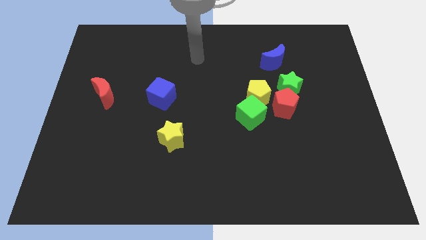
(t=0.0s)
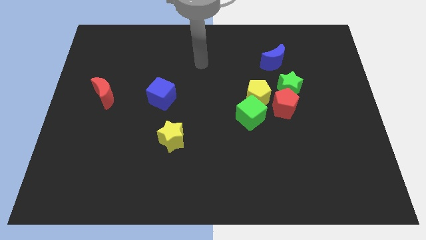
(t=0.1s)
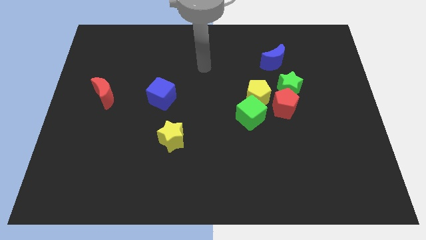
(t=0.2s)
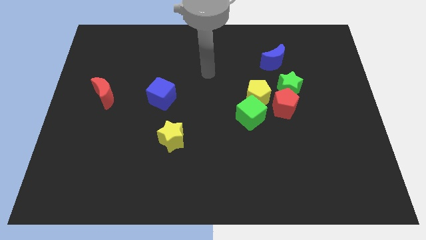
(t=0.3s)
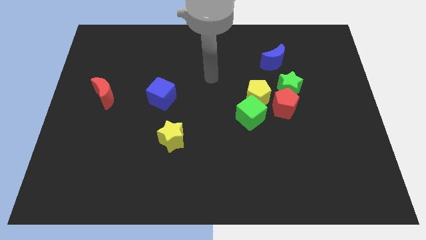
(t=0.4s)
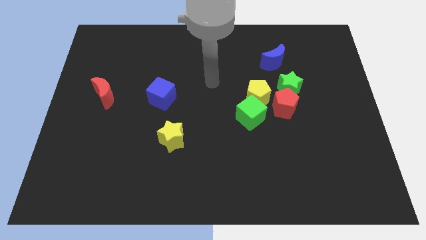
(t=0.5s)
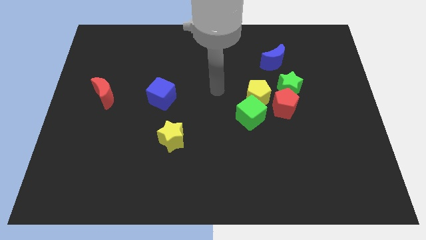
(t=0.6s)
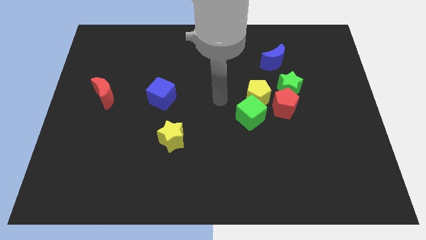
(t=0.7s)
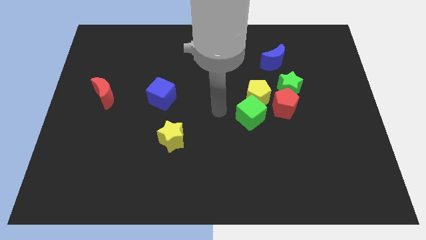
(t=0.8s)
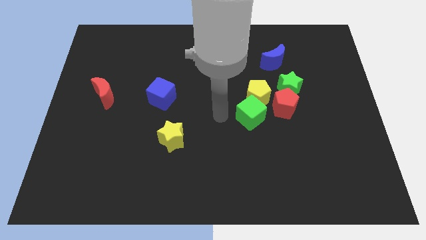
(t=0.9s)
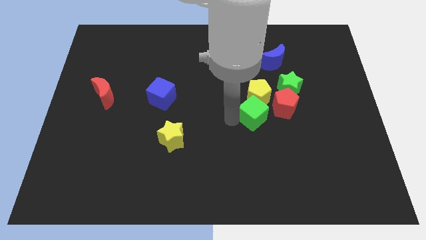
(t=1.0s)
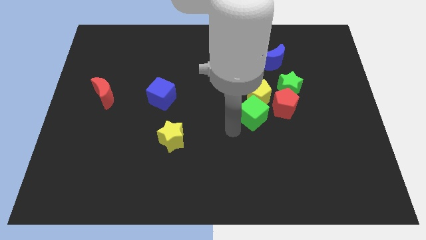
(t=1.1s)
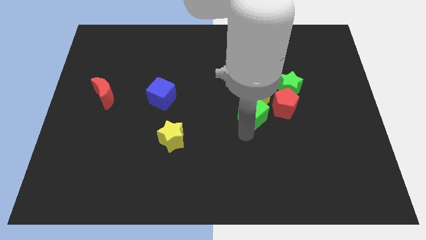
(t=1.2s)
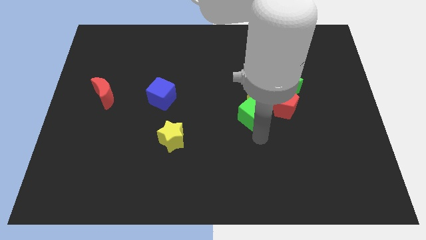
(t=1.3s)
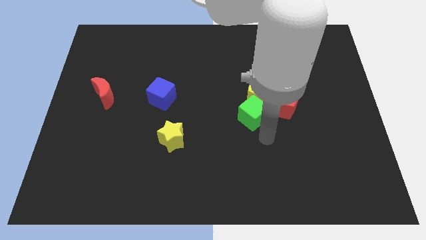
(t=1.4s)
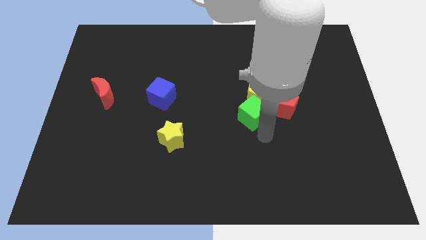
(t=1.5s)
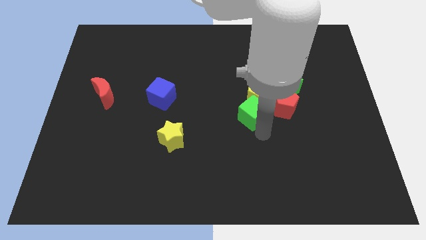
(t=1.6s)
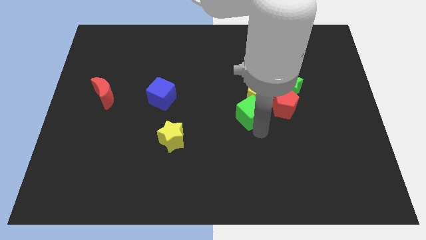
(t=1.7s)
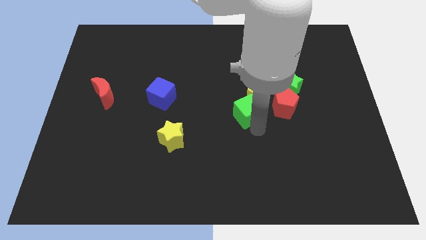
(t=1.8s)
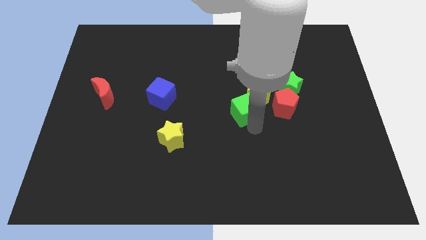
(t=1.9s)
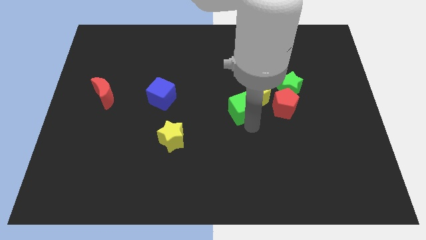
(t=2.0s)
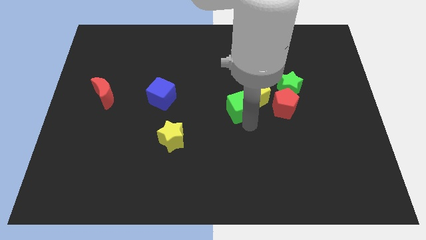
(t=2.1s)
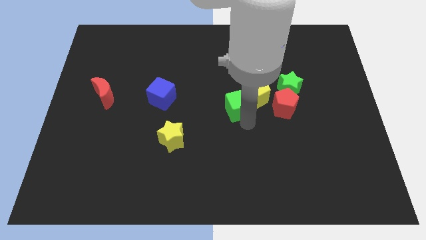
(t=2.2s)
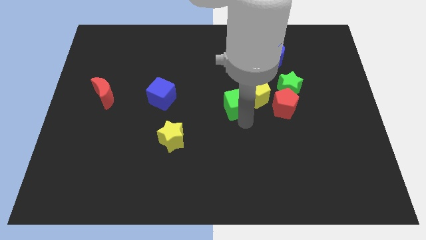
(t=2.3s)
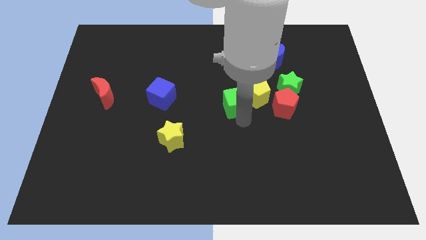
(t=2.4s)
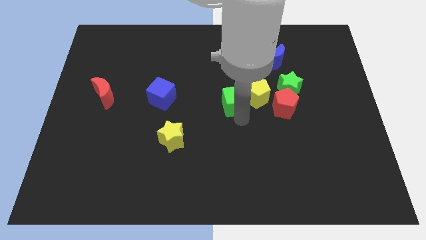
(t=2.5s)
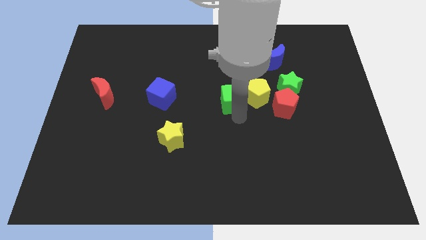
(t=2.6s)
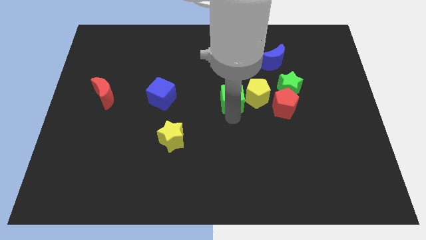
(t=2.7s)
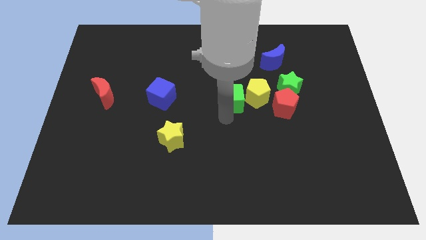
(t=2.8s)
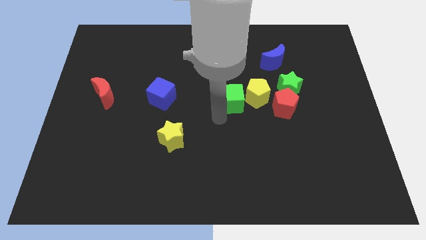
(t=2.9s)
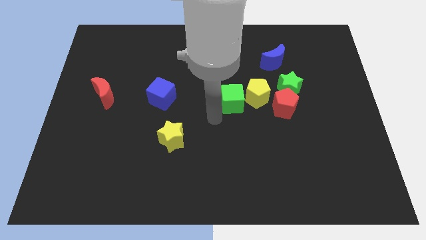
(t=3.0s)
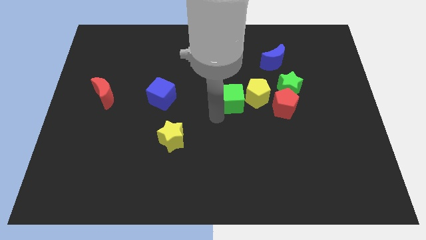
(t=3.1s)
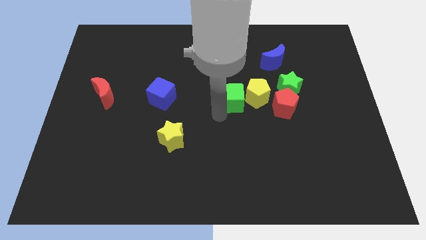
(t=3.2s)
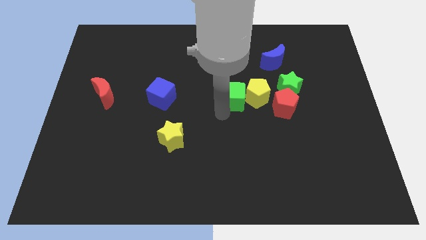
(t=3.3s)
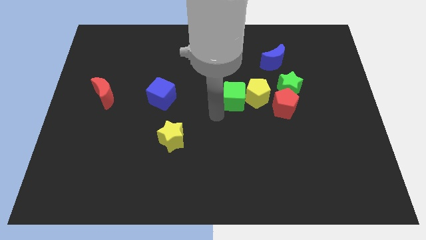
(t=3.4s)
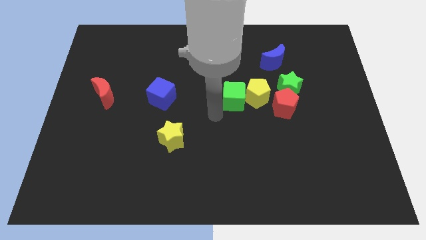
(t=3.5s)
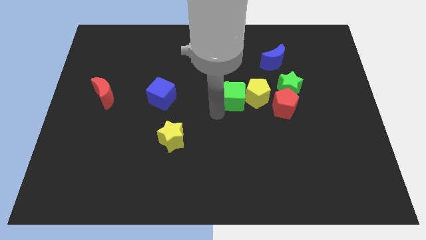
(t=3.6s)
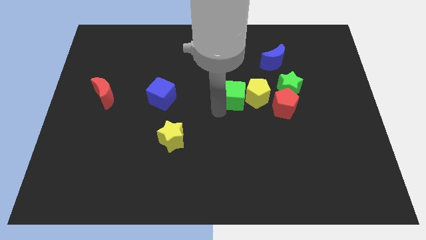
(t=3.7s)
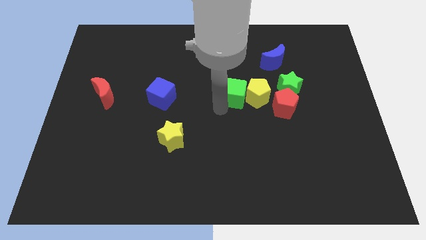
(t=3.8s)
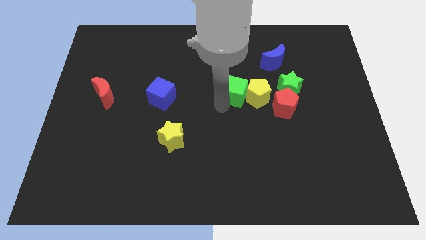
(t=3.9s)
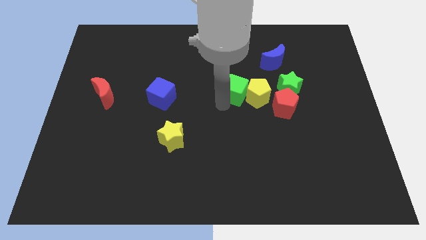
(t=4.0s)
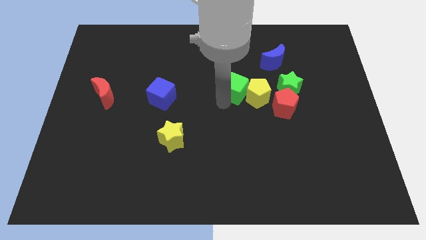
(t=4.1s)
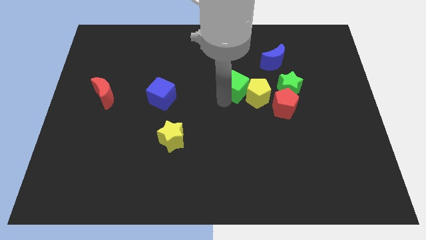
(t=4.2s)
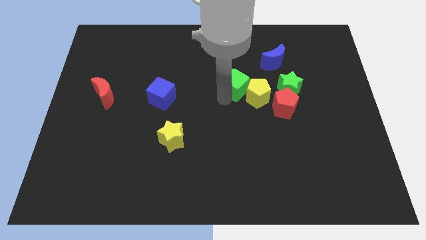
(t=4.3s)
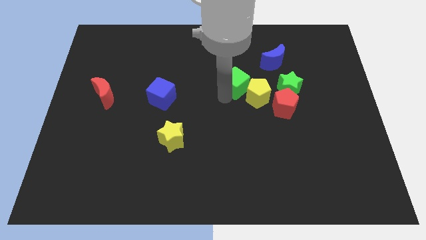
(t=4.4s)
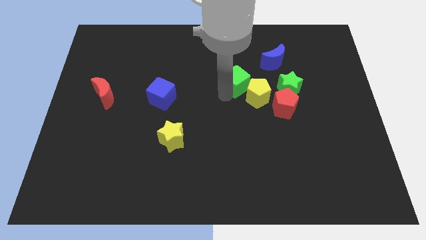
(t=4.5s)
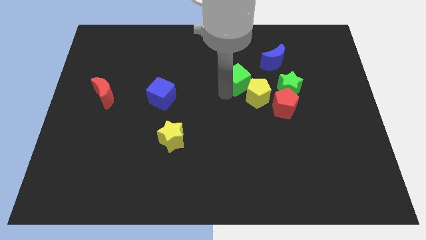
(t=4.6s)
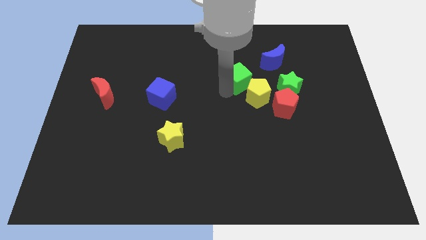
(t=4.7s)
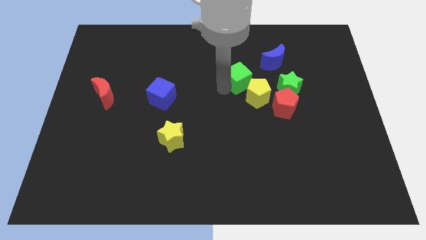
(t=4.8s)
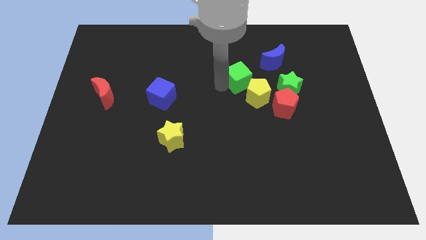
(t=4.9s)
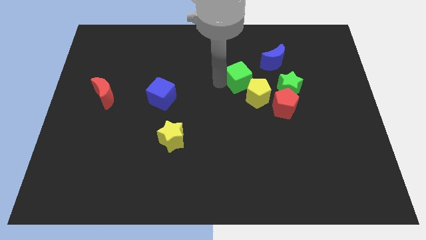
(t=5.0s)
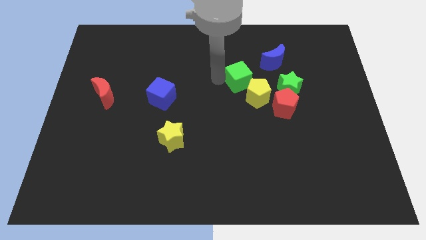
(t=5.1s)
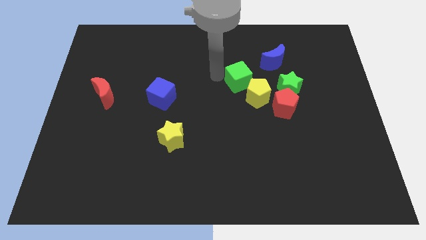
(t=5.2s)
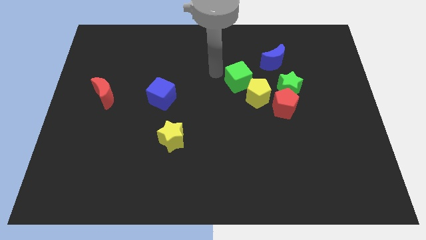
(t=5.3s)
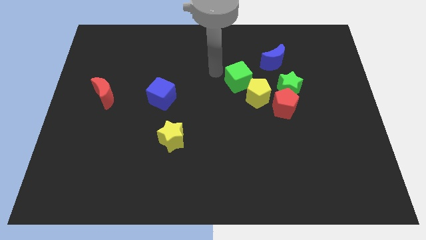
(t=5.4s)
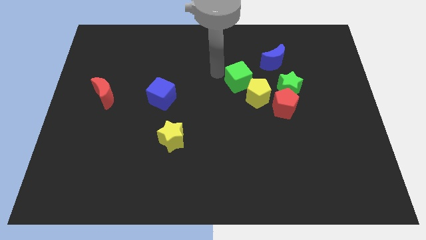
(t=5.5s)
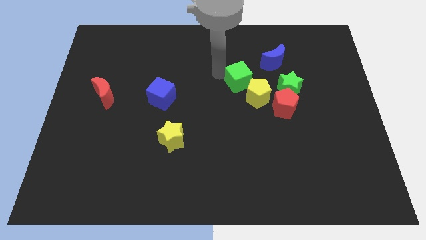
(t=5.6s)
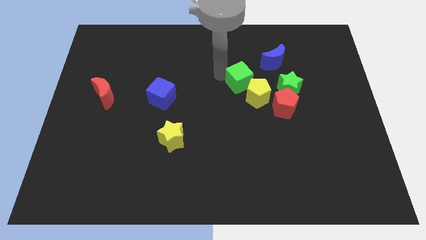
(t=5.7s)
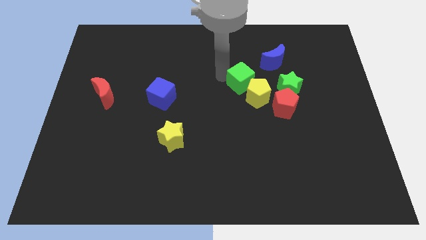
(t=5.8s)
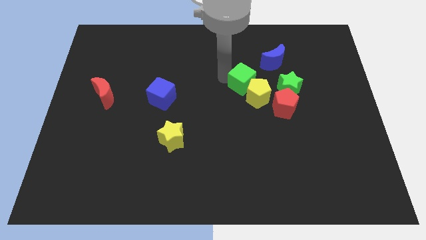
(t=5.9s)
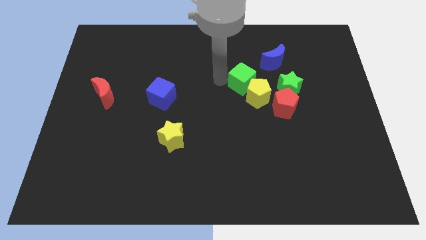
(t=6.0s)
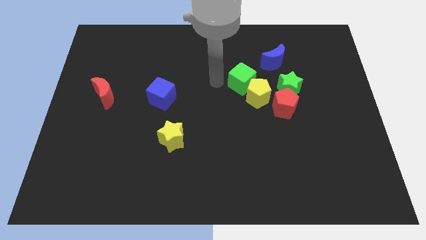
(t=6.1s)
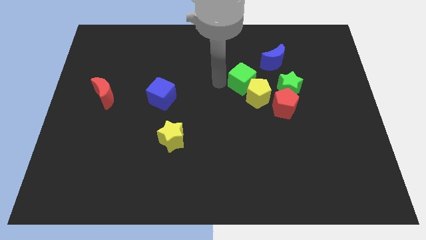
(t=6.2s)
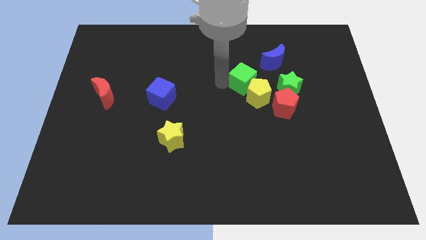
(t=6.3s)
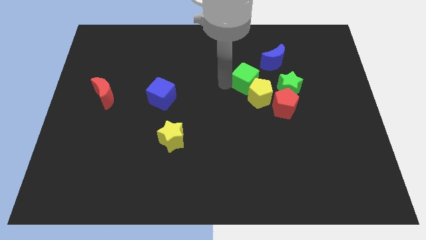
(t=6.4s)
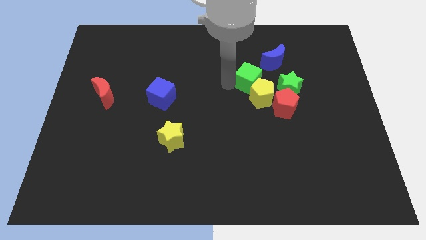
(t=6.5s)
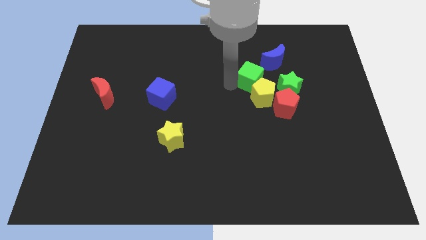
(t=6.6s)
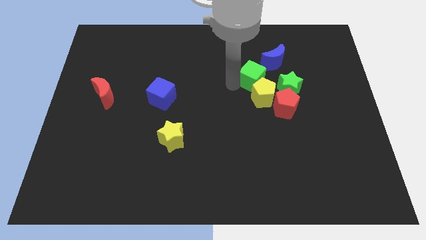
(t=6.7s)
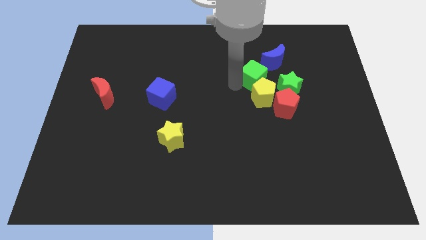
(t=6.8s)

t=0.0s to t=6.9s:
slightly push the green cube up and right diagonally

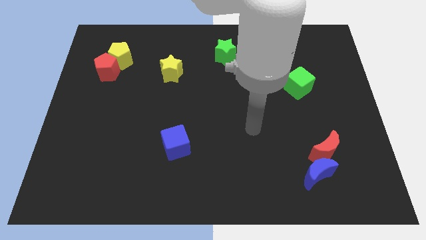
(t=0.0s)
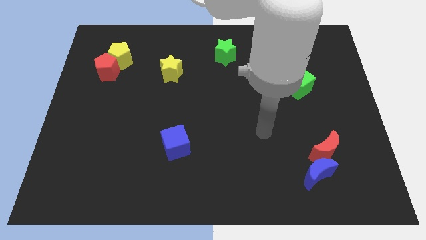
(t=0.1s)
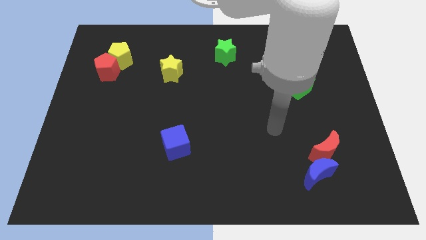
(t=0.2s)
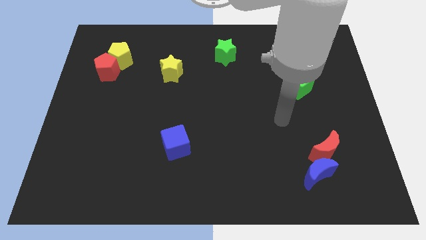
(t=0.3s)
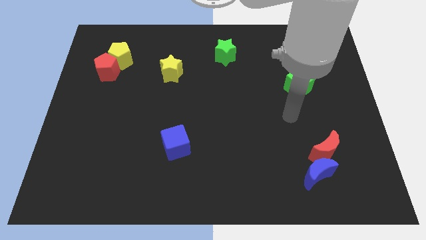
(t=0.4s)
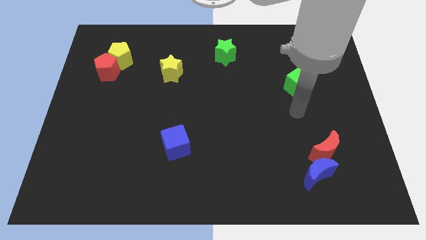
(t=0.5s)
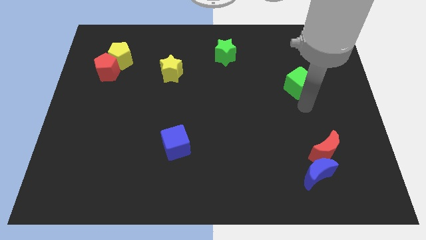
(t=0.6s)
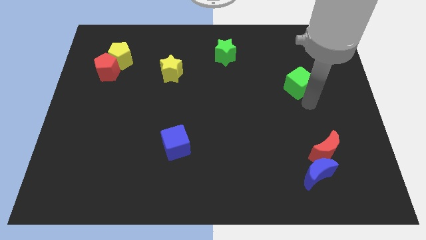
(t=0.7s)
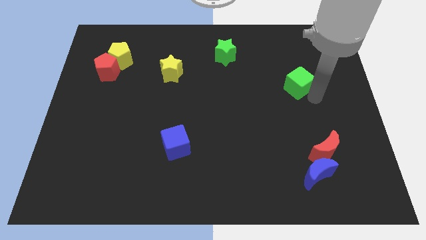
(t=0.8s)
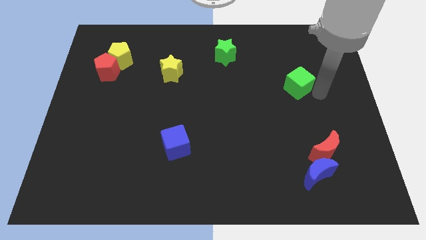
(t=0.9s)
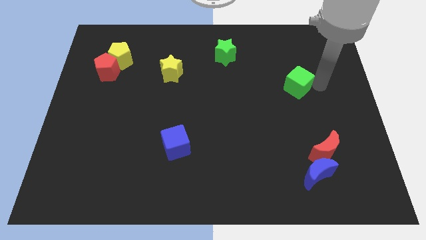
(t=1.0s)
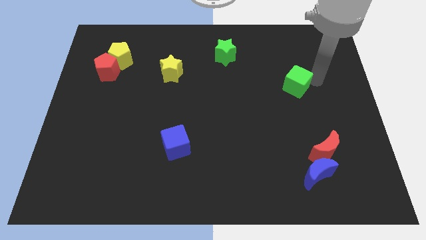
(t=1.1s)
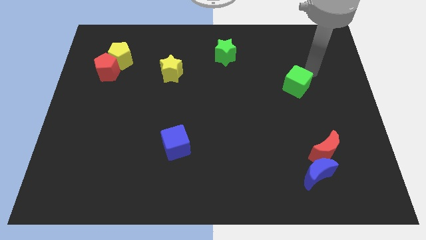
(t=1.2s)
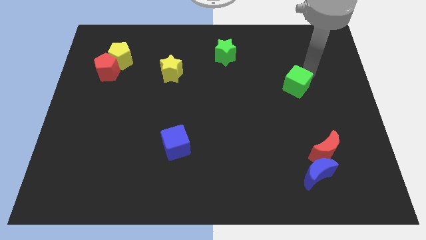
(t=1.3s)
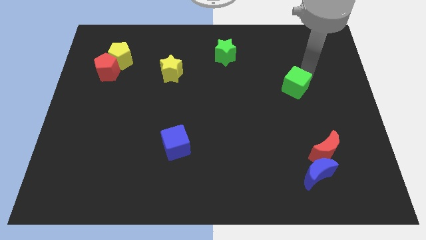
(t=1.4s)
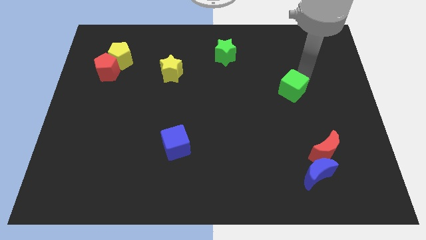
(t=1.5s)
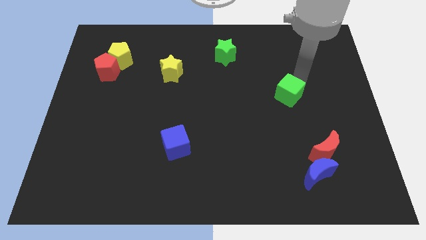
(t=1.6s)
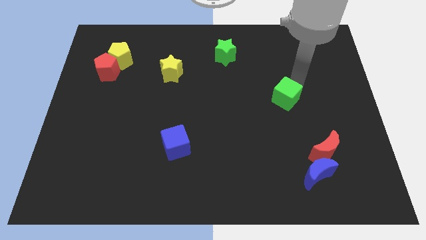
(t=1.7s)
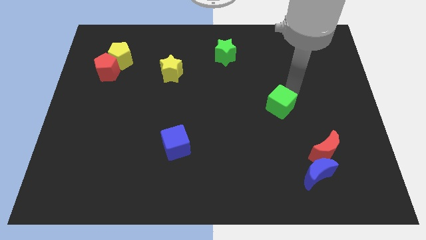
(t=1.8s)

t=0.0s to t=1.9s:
slide the green cube a little downwards and left diagonally
